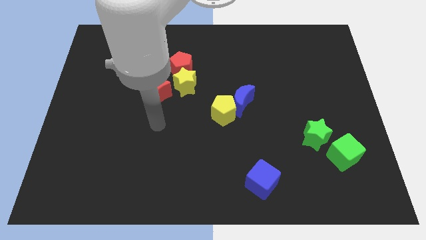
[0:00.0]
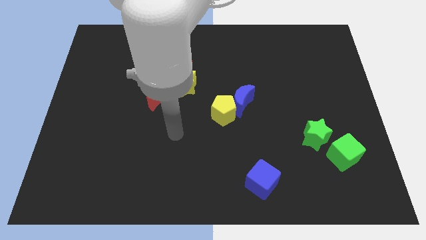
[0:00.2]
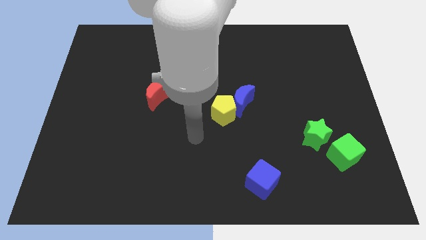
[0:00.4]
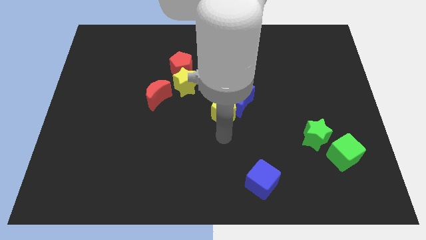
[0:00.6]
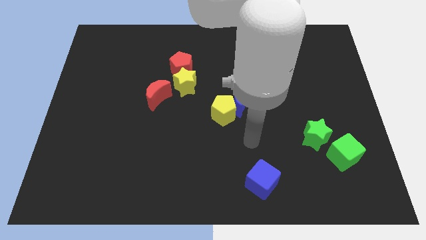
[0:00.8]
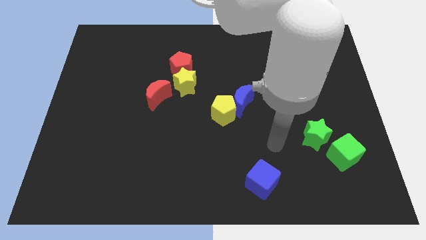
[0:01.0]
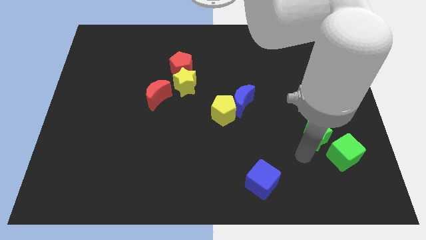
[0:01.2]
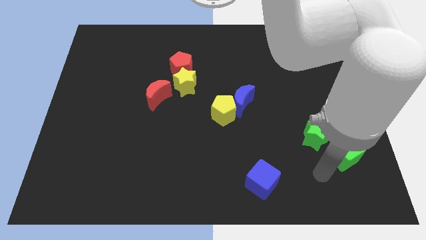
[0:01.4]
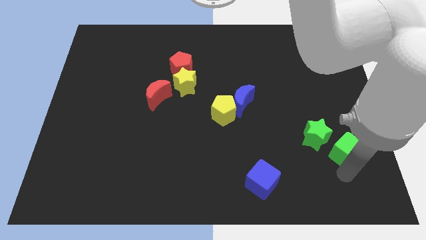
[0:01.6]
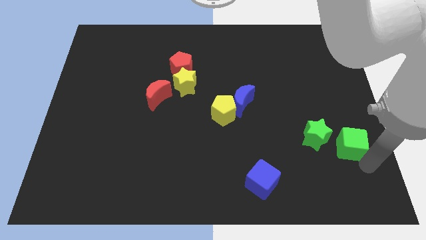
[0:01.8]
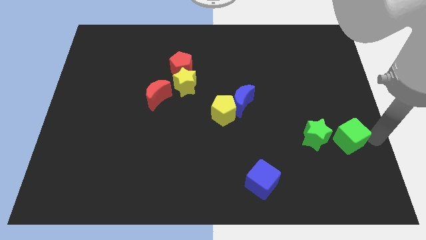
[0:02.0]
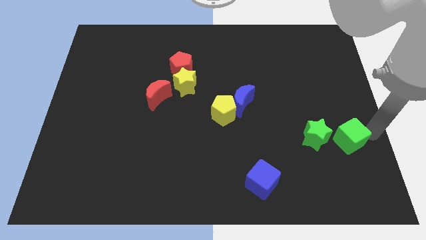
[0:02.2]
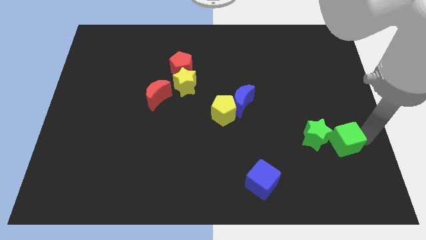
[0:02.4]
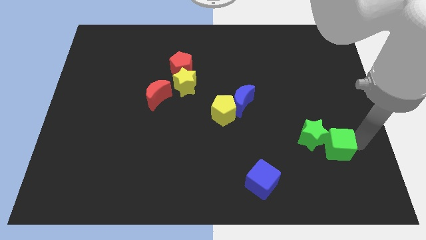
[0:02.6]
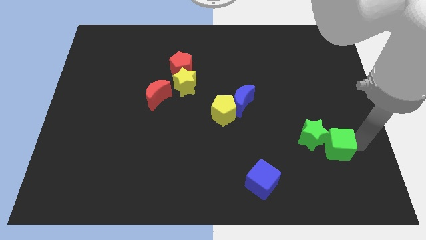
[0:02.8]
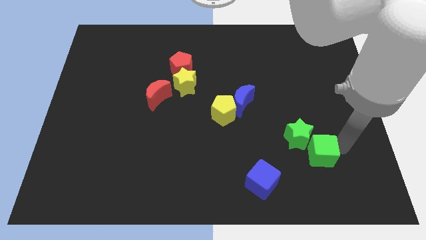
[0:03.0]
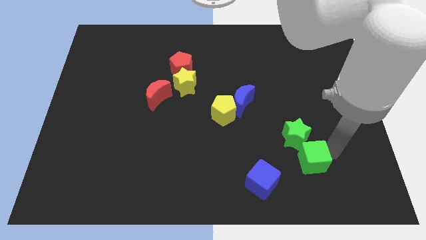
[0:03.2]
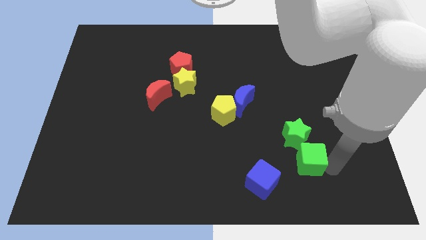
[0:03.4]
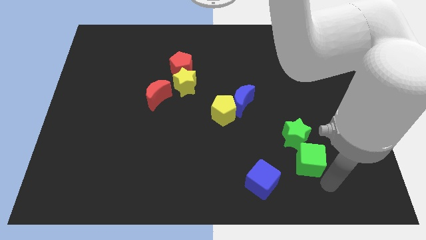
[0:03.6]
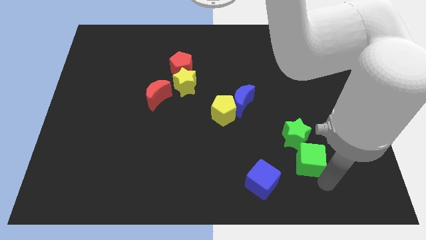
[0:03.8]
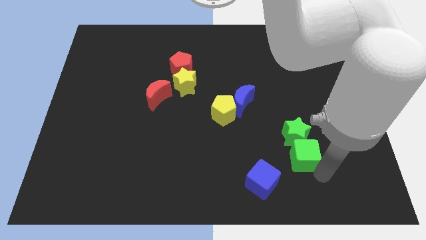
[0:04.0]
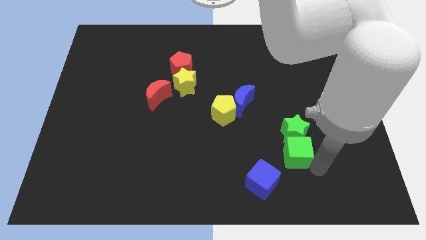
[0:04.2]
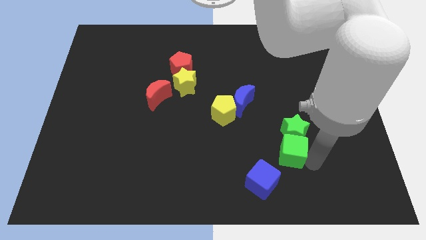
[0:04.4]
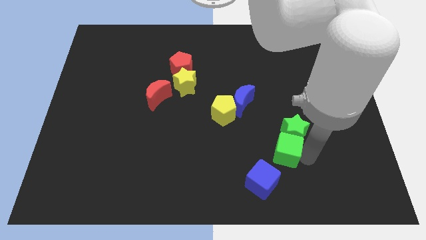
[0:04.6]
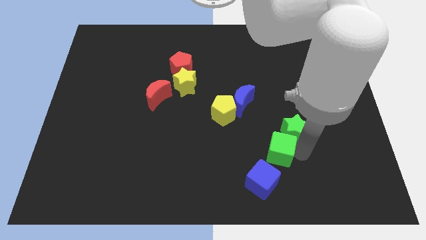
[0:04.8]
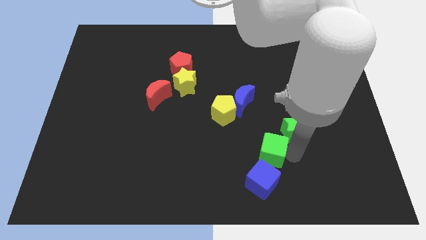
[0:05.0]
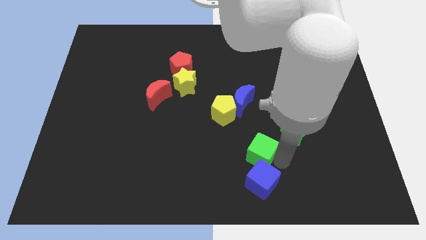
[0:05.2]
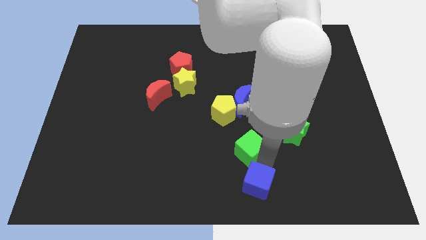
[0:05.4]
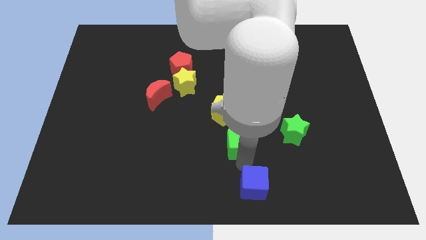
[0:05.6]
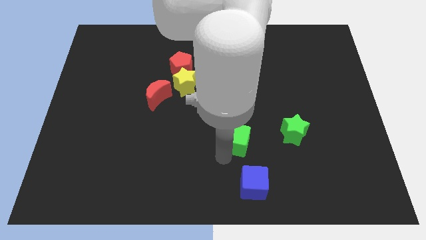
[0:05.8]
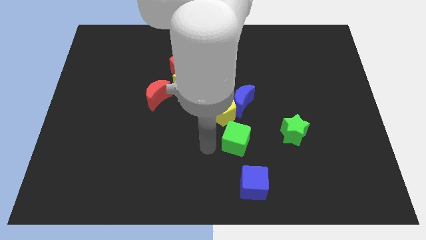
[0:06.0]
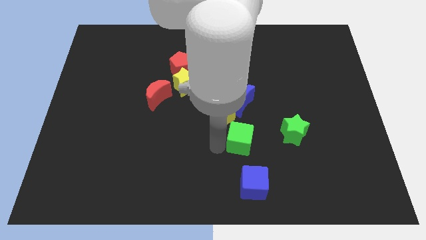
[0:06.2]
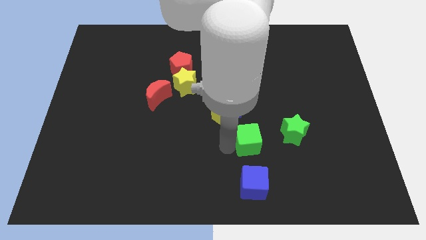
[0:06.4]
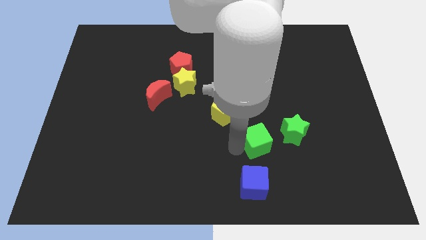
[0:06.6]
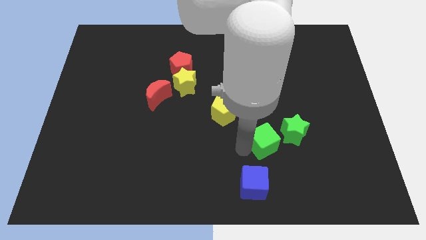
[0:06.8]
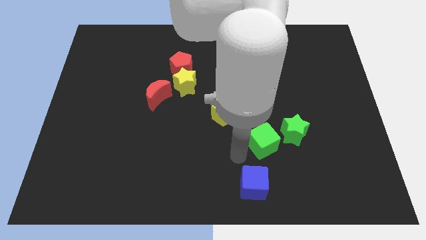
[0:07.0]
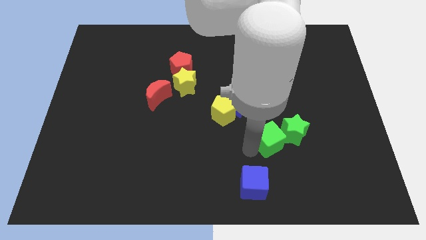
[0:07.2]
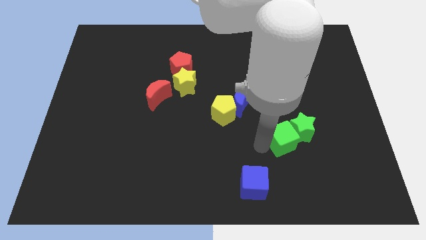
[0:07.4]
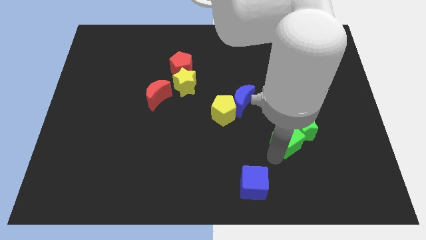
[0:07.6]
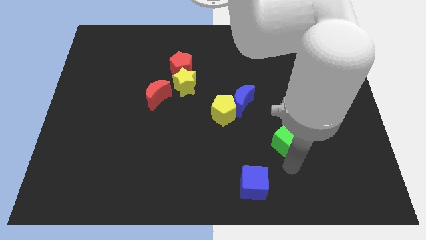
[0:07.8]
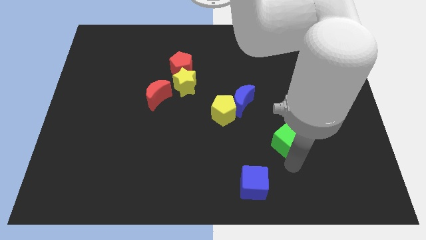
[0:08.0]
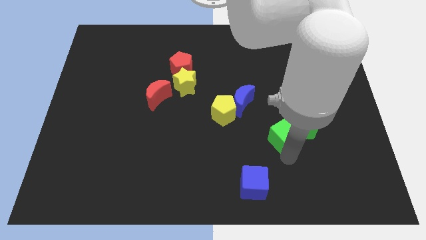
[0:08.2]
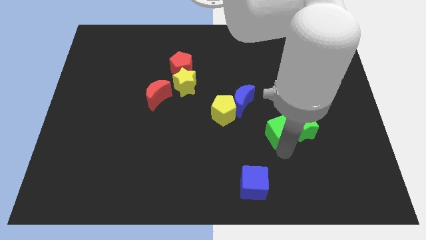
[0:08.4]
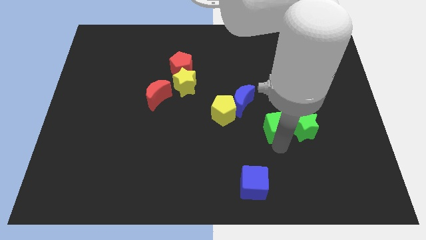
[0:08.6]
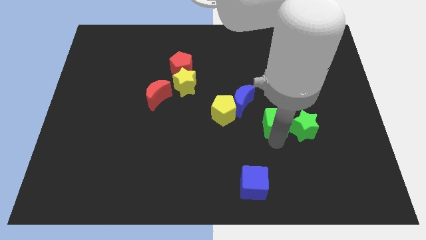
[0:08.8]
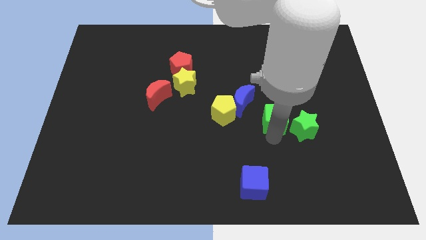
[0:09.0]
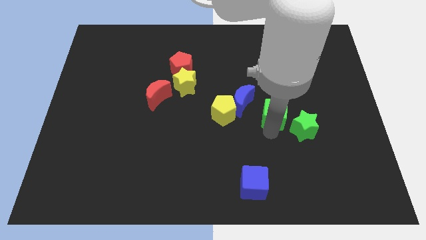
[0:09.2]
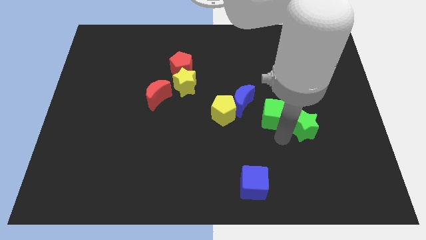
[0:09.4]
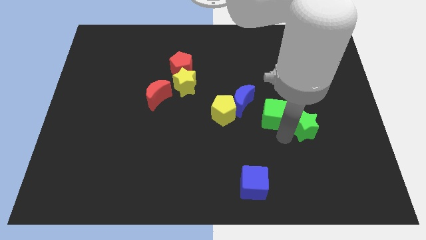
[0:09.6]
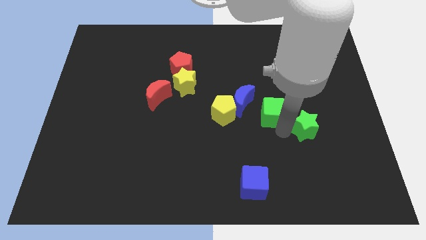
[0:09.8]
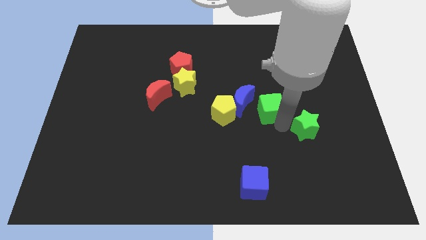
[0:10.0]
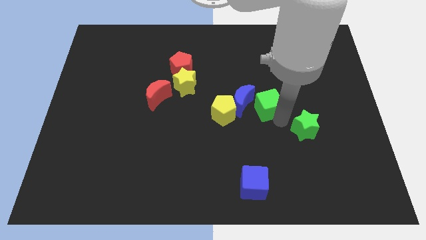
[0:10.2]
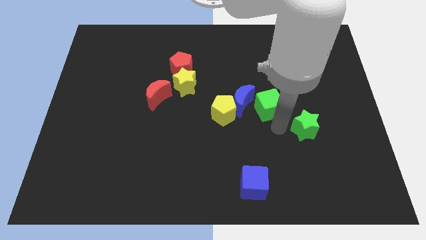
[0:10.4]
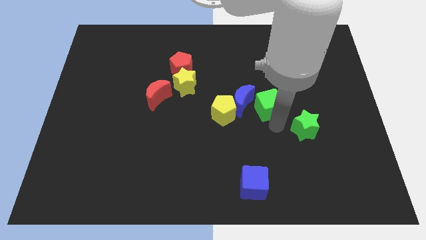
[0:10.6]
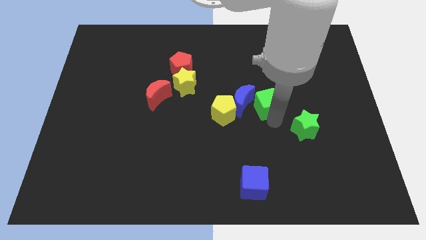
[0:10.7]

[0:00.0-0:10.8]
slide the green cube up and left

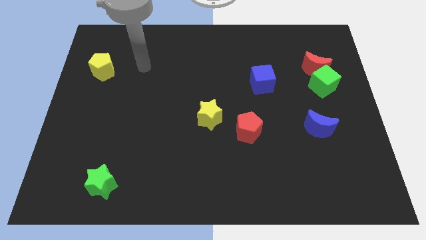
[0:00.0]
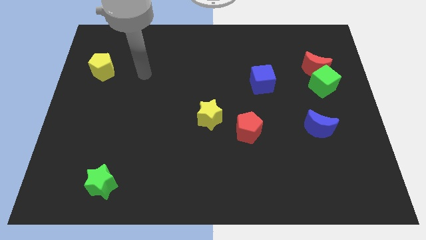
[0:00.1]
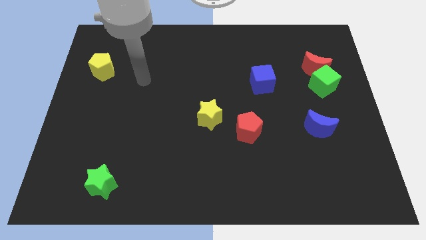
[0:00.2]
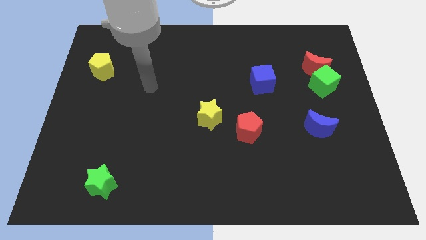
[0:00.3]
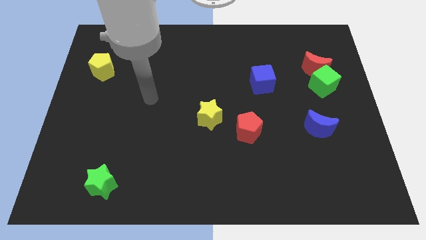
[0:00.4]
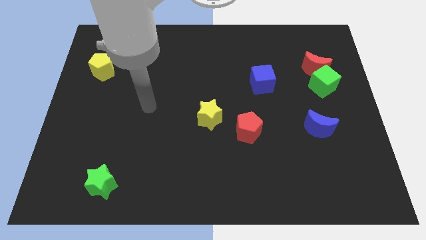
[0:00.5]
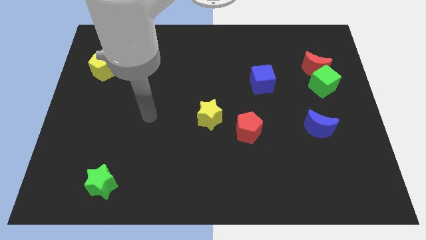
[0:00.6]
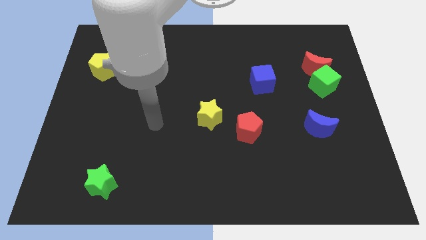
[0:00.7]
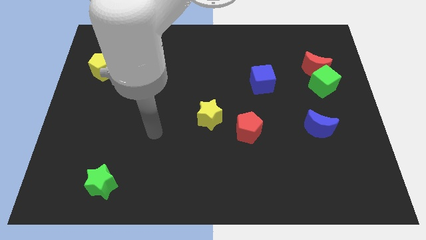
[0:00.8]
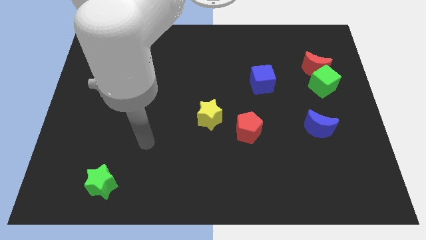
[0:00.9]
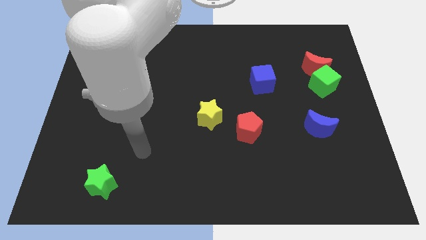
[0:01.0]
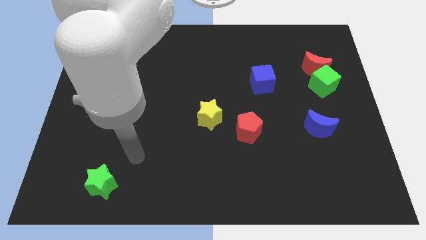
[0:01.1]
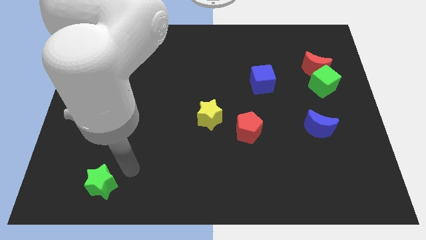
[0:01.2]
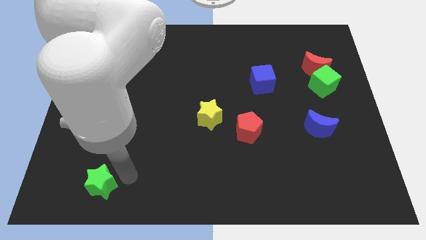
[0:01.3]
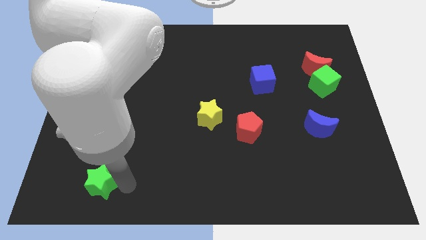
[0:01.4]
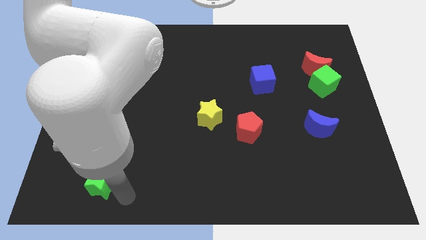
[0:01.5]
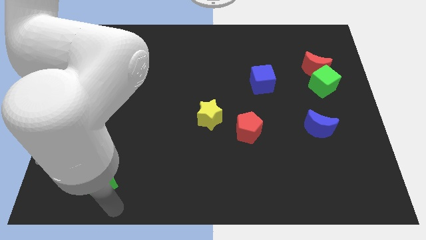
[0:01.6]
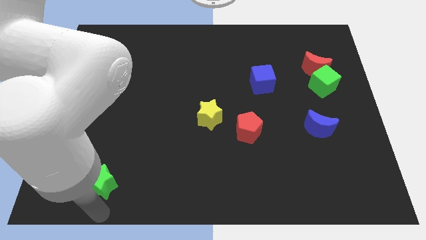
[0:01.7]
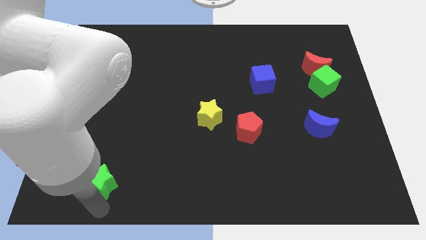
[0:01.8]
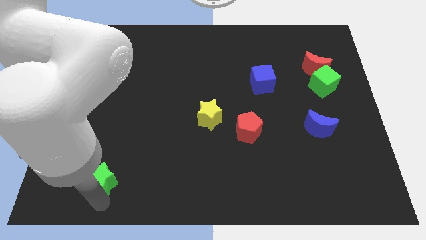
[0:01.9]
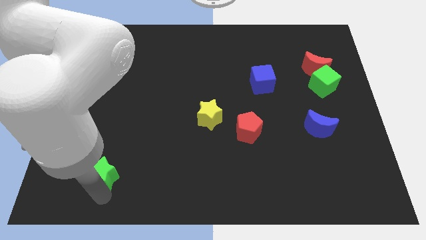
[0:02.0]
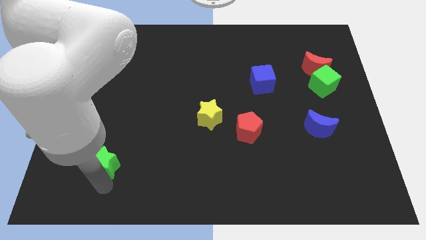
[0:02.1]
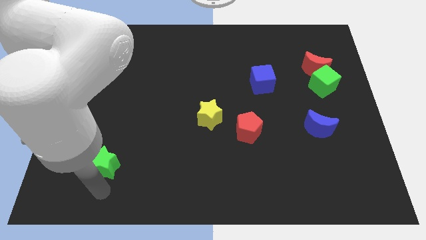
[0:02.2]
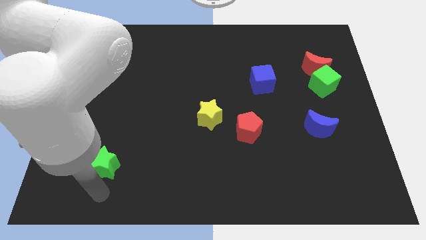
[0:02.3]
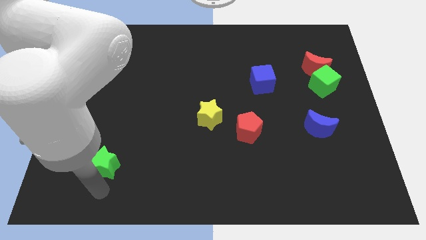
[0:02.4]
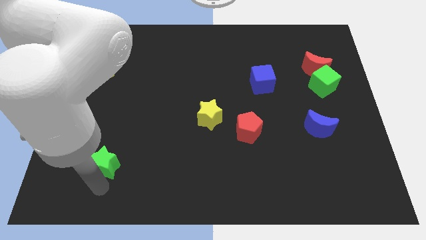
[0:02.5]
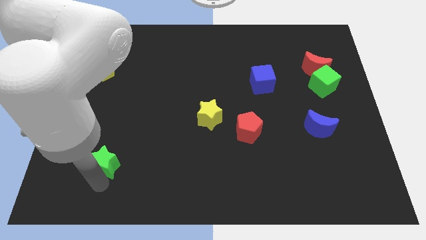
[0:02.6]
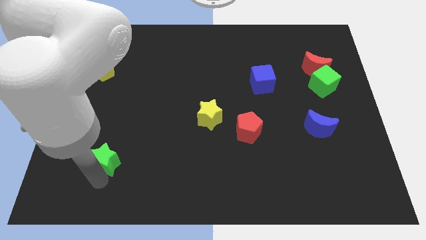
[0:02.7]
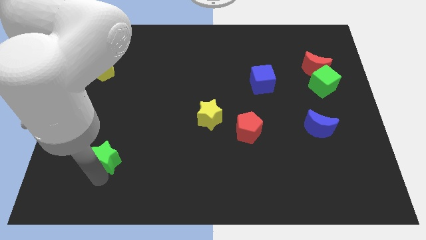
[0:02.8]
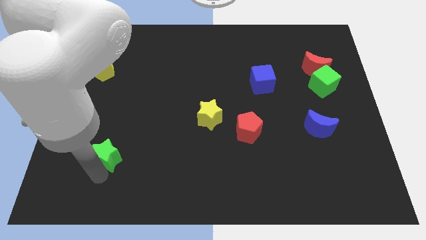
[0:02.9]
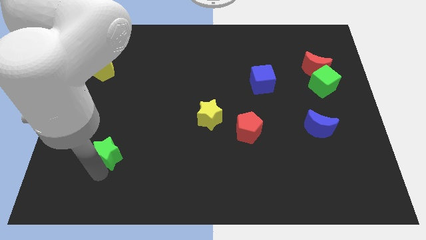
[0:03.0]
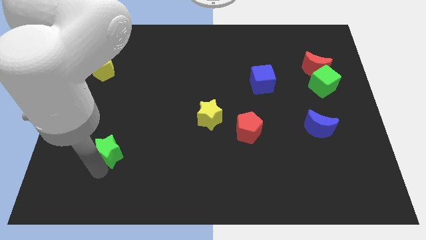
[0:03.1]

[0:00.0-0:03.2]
slide the green star upwards slightly
